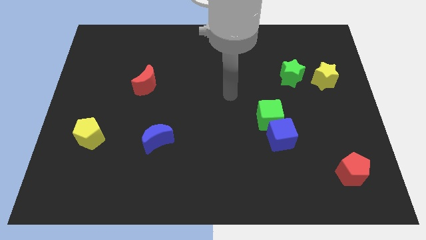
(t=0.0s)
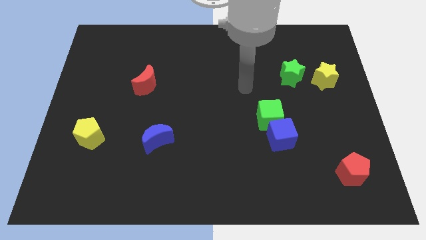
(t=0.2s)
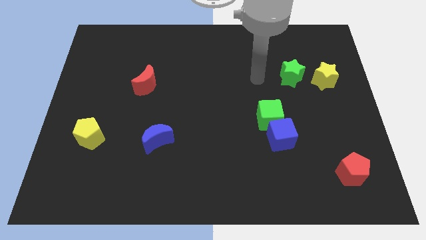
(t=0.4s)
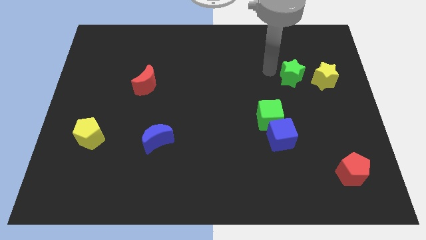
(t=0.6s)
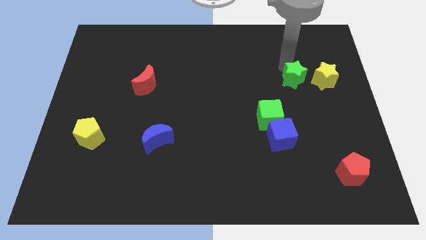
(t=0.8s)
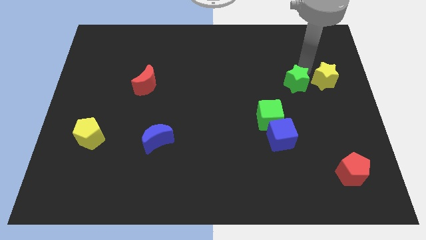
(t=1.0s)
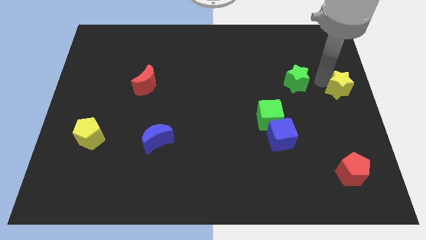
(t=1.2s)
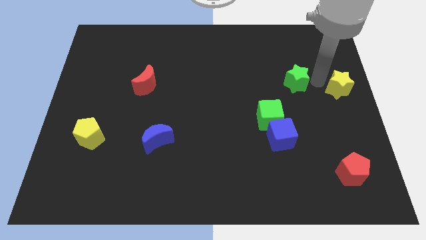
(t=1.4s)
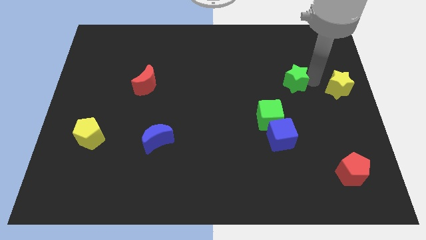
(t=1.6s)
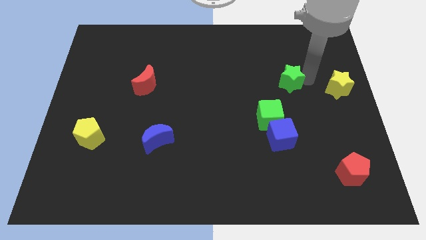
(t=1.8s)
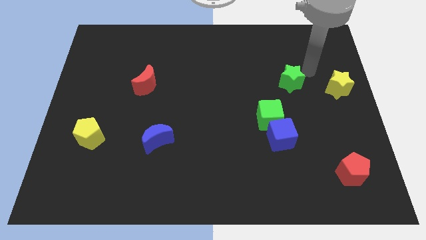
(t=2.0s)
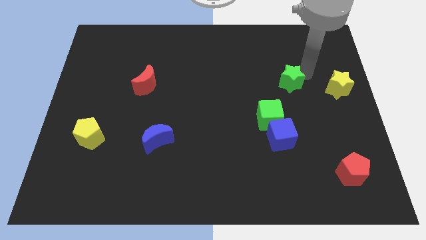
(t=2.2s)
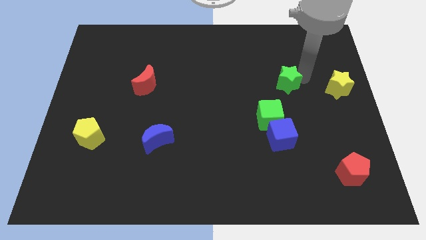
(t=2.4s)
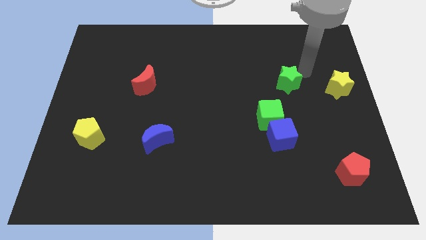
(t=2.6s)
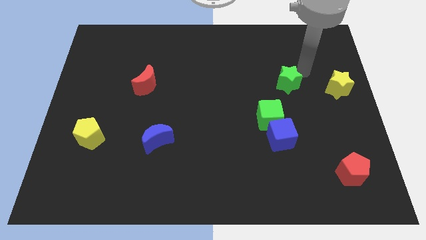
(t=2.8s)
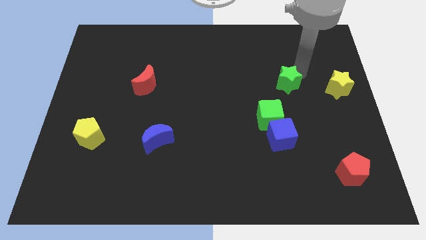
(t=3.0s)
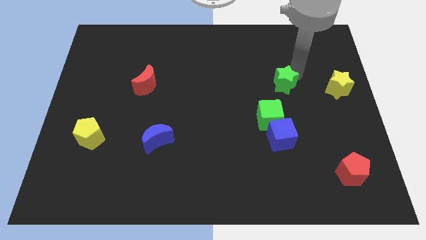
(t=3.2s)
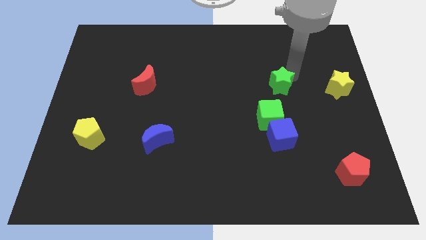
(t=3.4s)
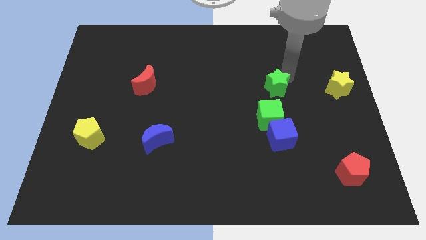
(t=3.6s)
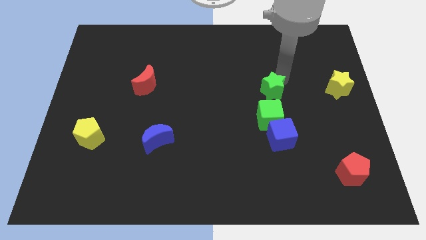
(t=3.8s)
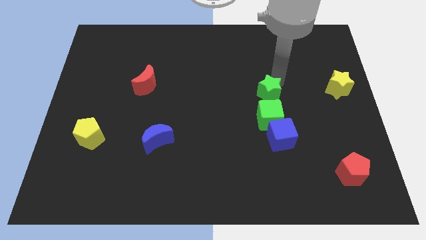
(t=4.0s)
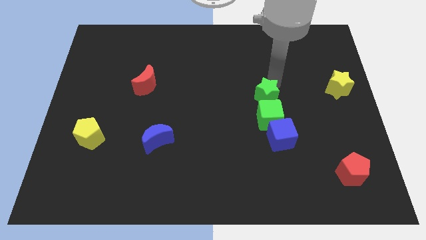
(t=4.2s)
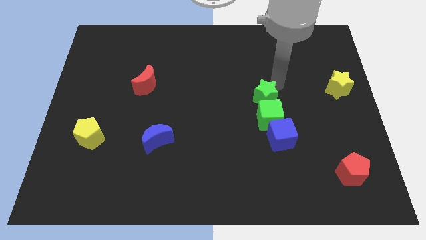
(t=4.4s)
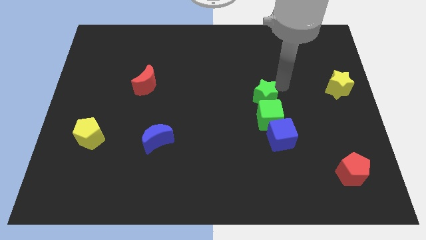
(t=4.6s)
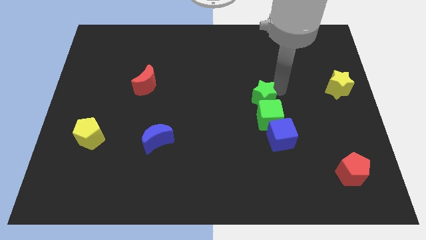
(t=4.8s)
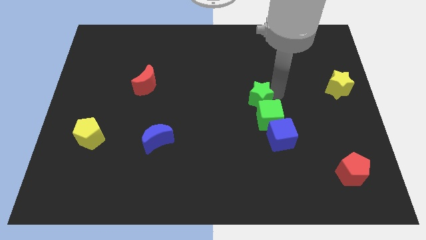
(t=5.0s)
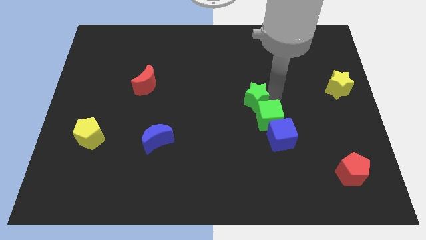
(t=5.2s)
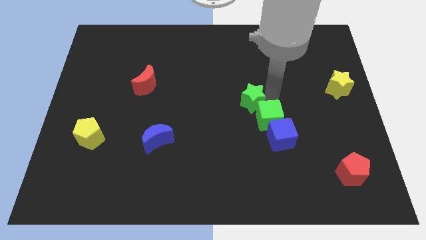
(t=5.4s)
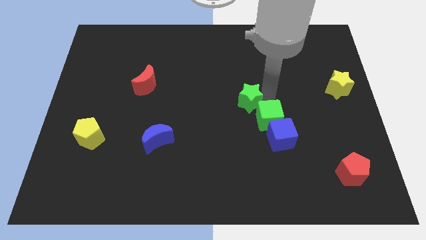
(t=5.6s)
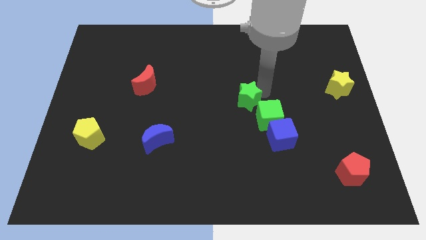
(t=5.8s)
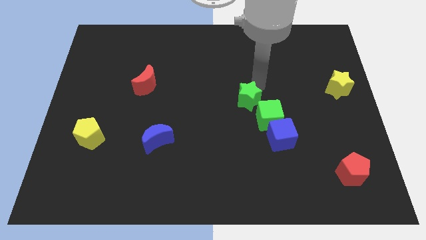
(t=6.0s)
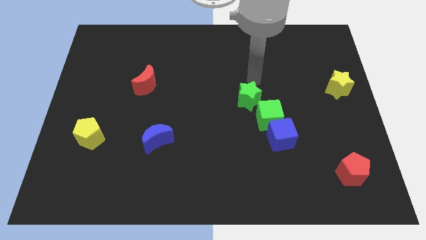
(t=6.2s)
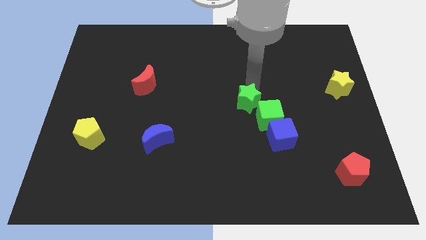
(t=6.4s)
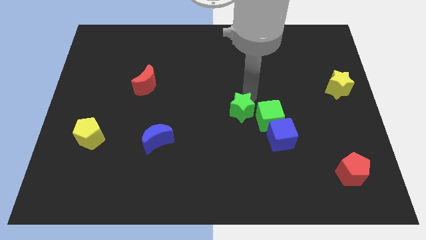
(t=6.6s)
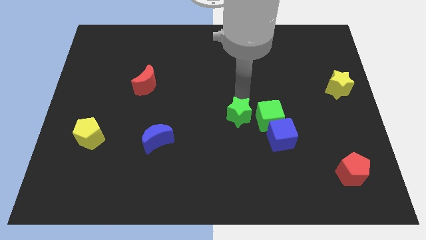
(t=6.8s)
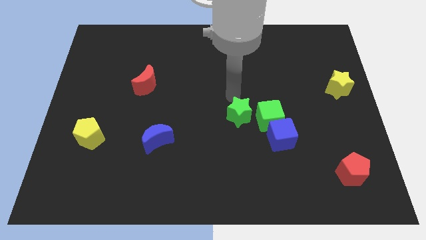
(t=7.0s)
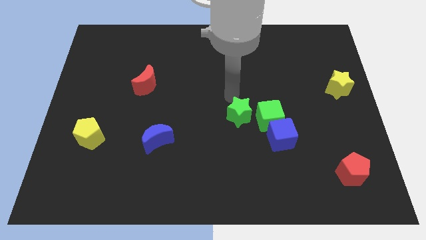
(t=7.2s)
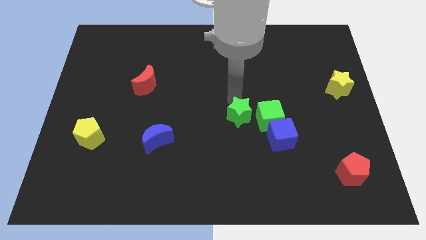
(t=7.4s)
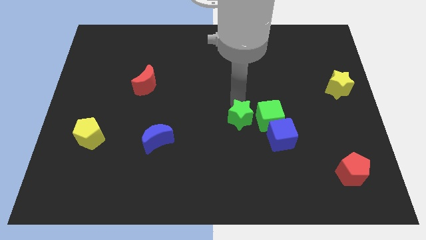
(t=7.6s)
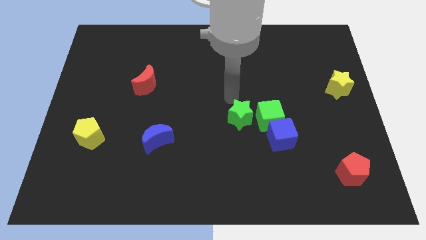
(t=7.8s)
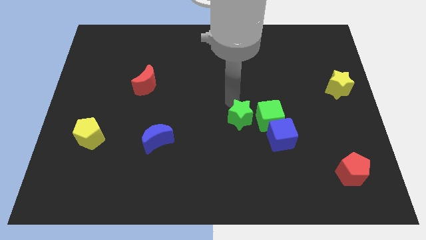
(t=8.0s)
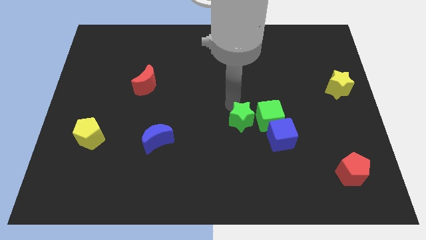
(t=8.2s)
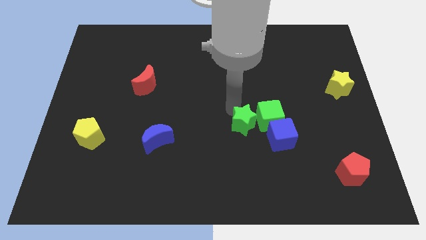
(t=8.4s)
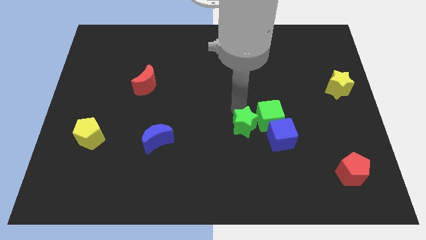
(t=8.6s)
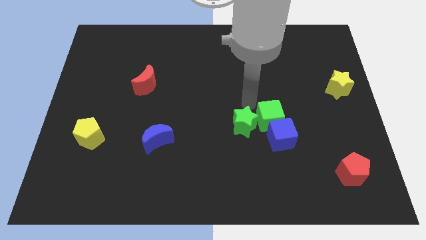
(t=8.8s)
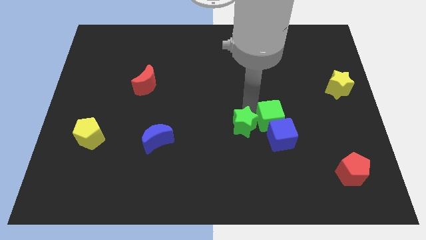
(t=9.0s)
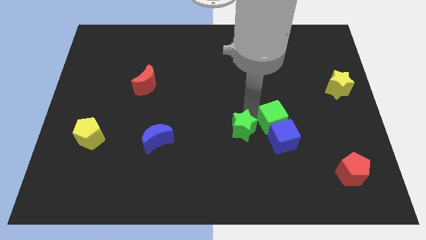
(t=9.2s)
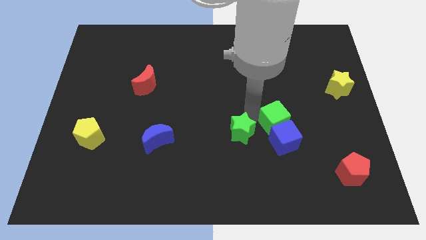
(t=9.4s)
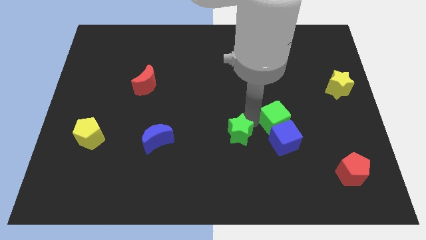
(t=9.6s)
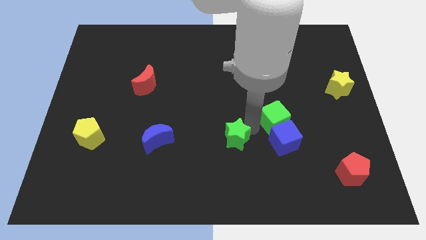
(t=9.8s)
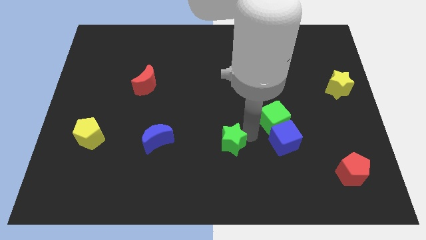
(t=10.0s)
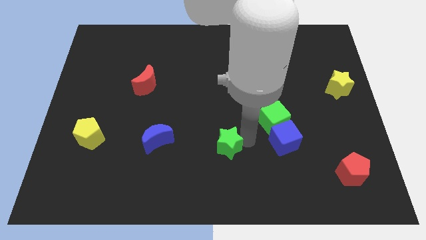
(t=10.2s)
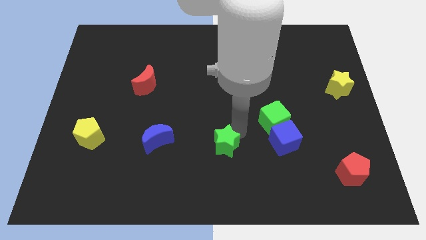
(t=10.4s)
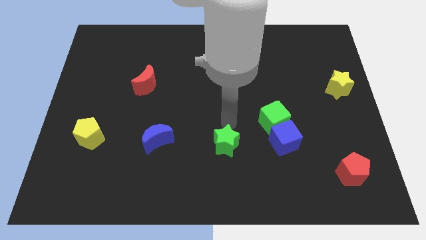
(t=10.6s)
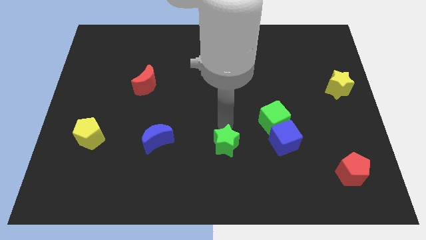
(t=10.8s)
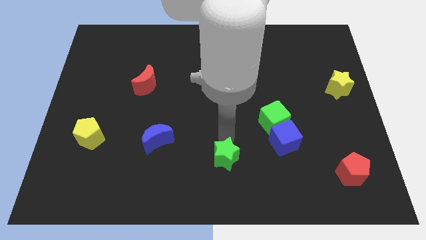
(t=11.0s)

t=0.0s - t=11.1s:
put the green star to the bottom
